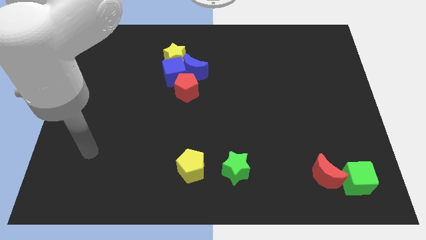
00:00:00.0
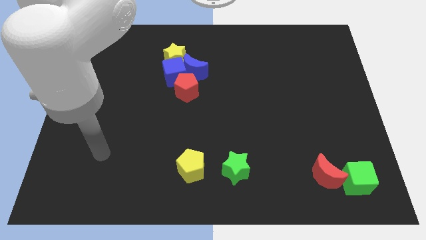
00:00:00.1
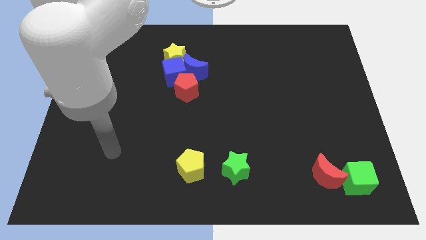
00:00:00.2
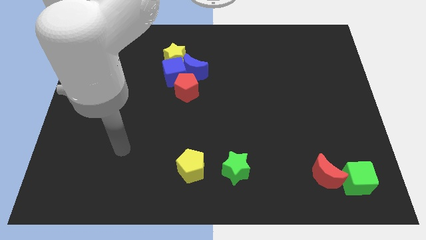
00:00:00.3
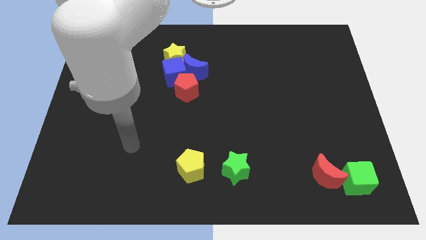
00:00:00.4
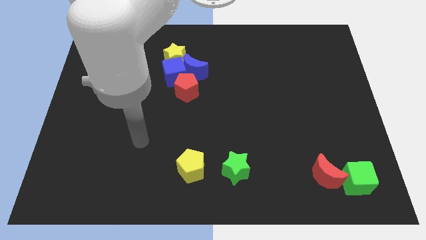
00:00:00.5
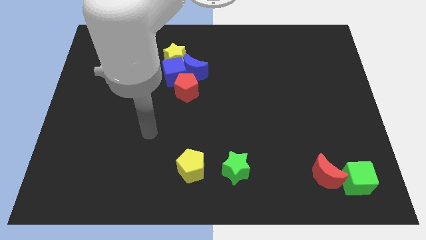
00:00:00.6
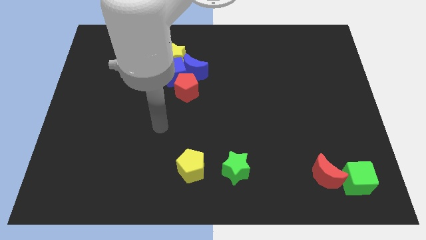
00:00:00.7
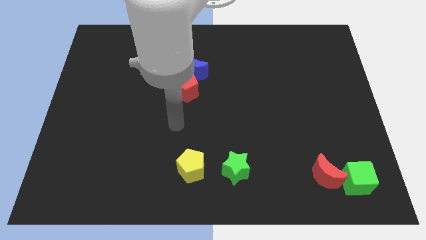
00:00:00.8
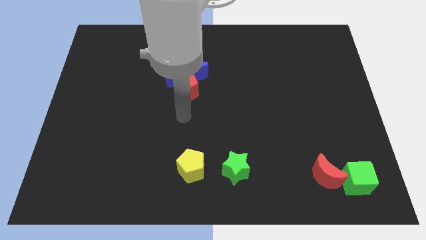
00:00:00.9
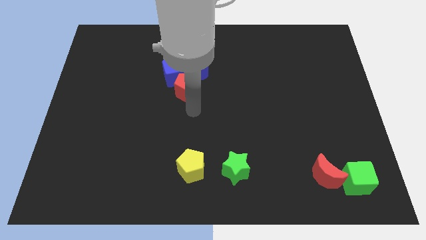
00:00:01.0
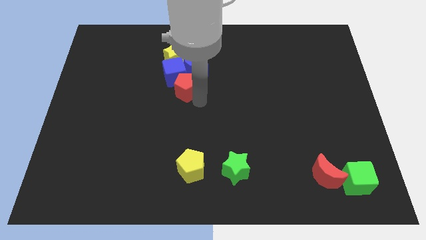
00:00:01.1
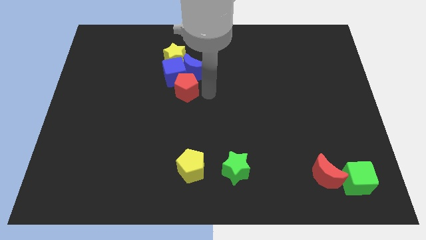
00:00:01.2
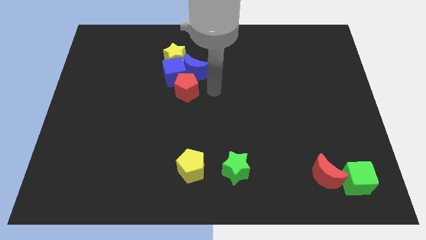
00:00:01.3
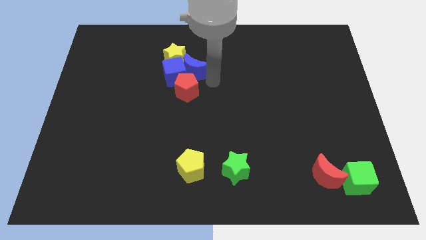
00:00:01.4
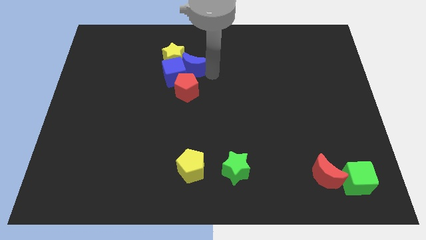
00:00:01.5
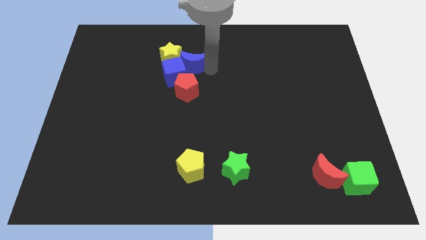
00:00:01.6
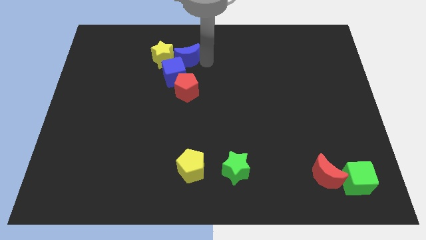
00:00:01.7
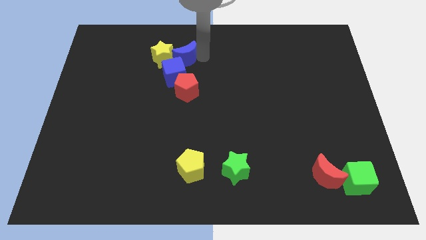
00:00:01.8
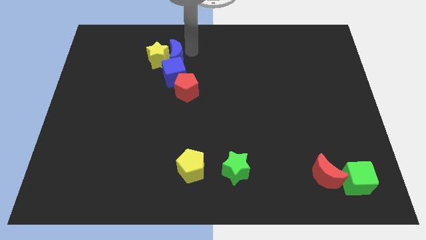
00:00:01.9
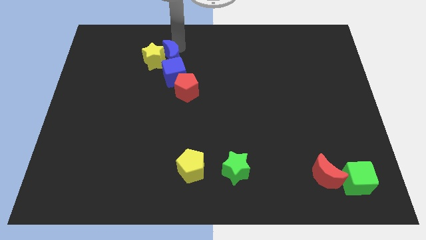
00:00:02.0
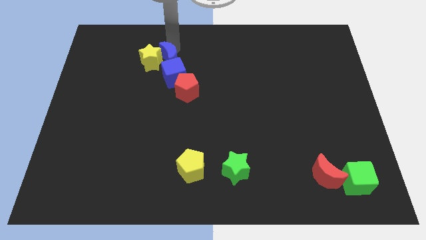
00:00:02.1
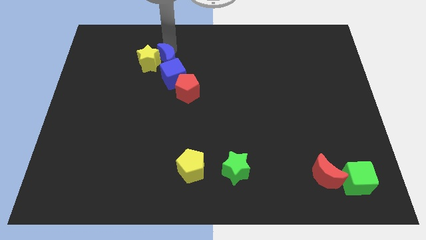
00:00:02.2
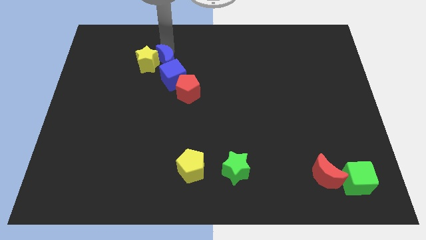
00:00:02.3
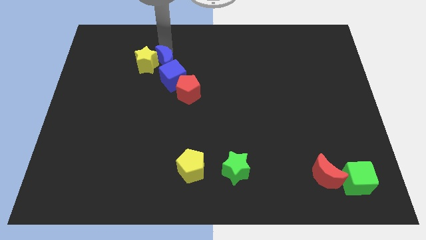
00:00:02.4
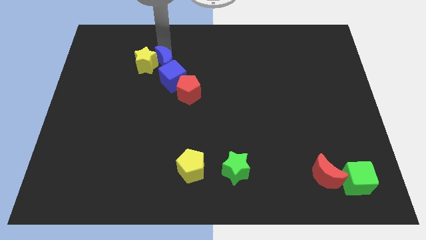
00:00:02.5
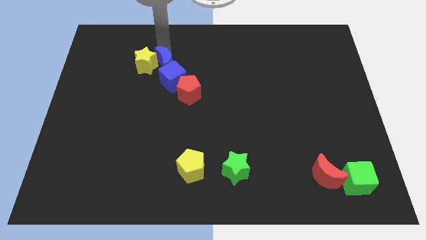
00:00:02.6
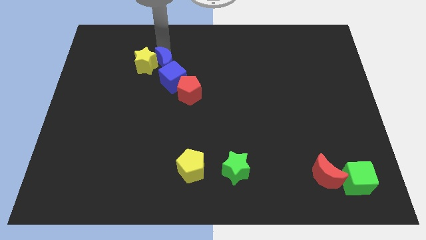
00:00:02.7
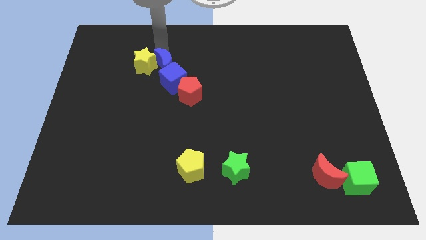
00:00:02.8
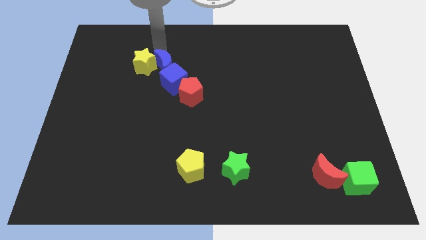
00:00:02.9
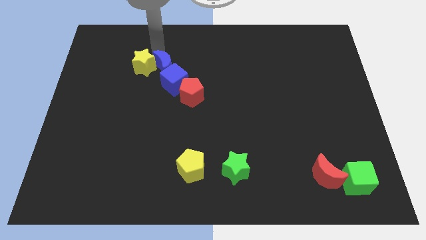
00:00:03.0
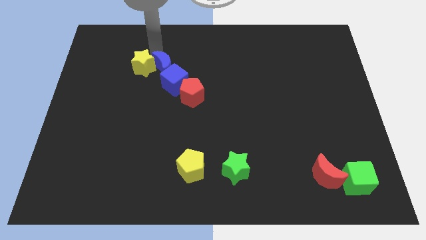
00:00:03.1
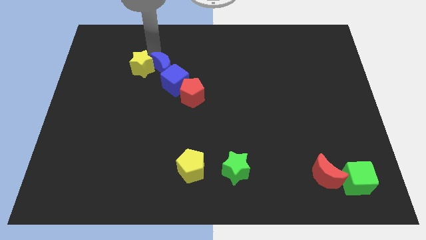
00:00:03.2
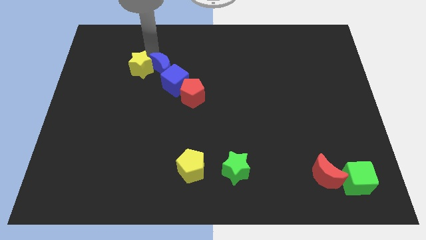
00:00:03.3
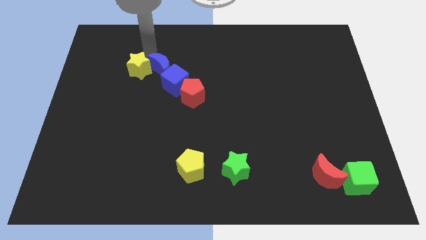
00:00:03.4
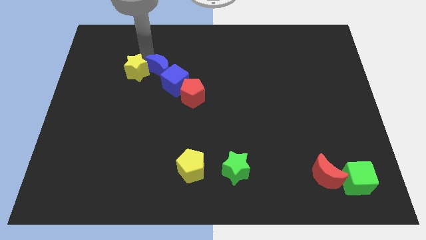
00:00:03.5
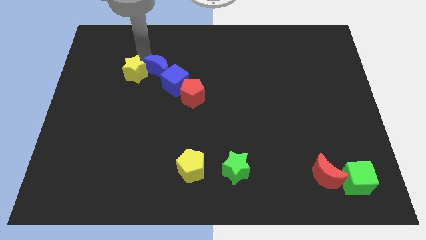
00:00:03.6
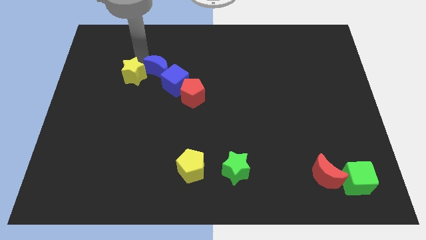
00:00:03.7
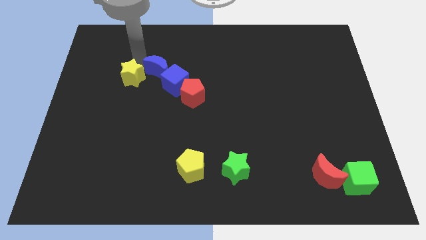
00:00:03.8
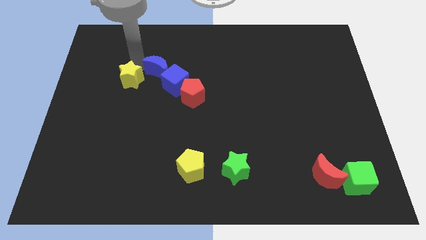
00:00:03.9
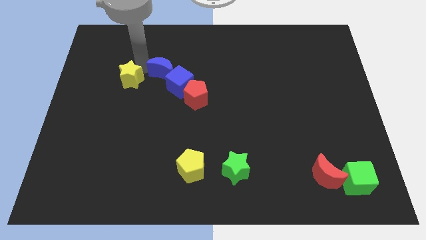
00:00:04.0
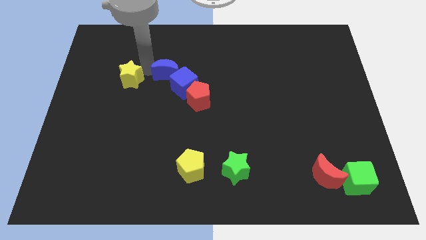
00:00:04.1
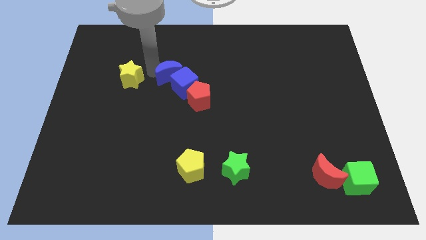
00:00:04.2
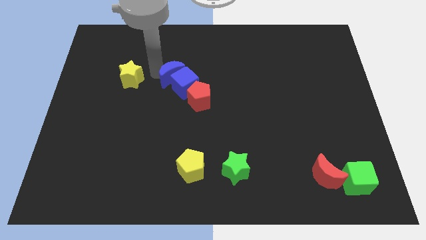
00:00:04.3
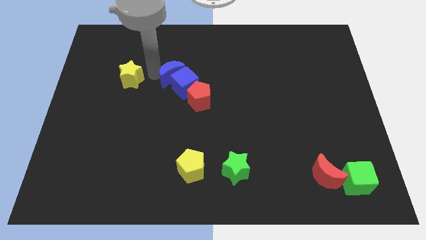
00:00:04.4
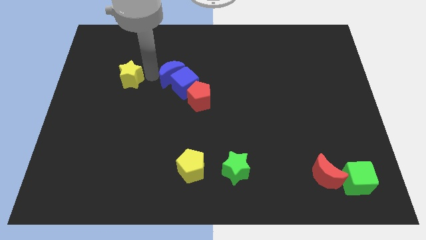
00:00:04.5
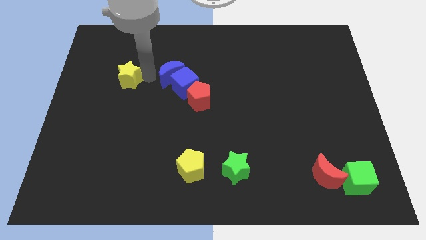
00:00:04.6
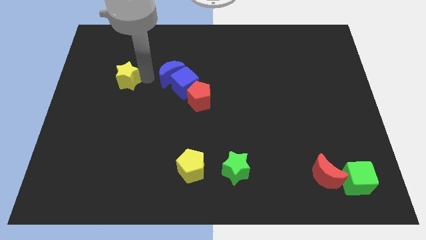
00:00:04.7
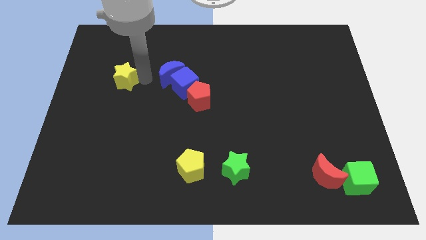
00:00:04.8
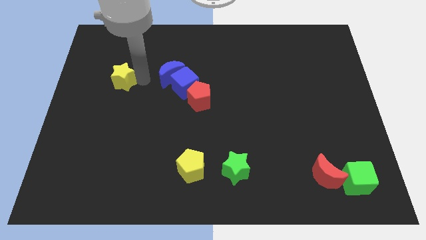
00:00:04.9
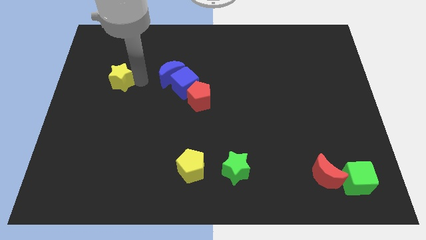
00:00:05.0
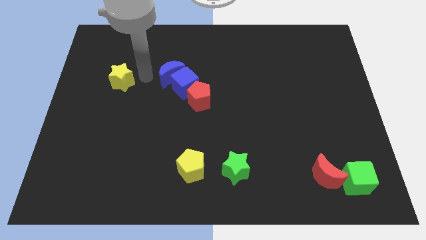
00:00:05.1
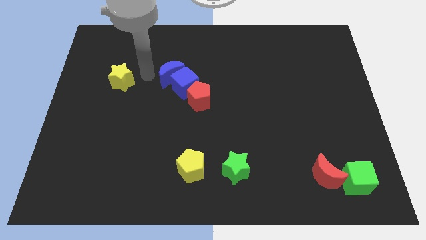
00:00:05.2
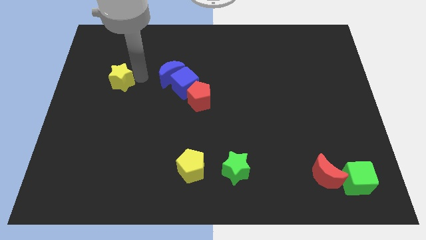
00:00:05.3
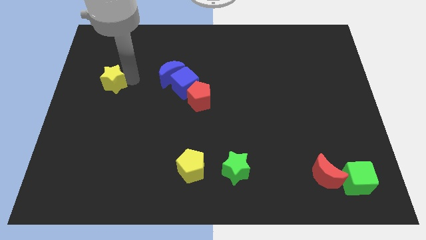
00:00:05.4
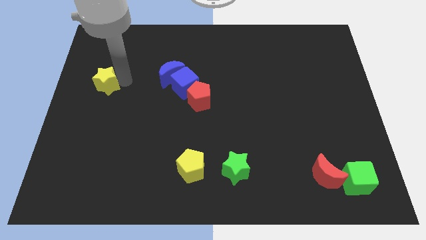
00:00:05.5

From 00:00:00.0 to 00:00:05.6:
slide the yellow star to the left side of the board

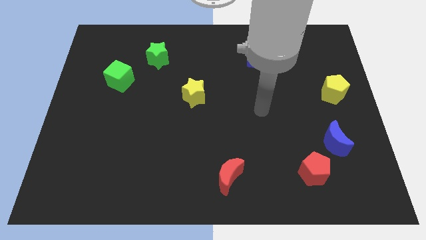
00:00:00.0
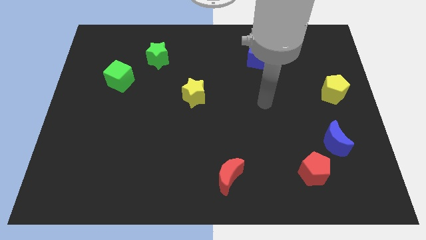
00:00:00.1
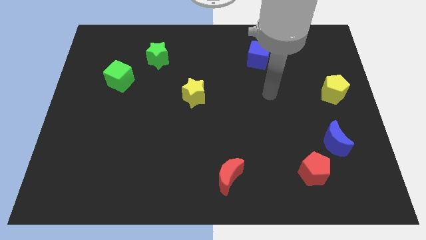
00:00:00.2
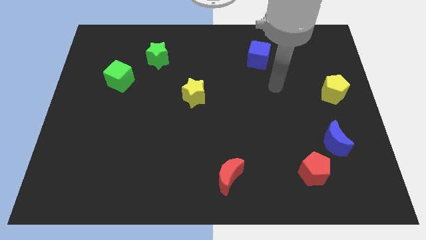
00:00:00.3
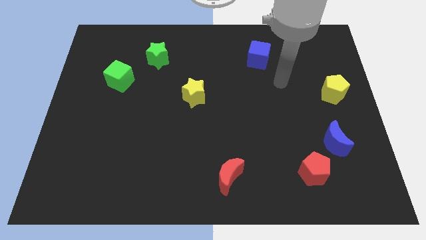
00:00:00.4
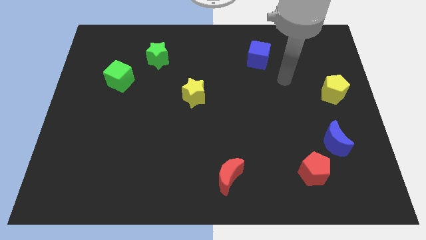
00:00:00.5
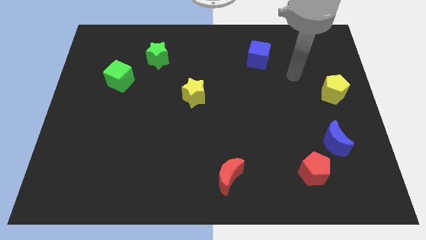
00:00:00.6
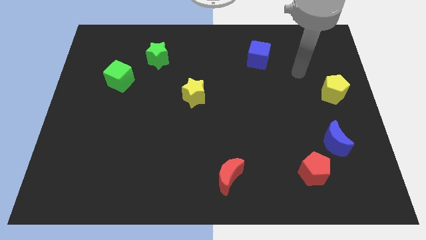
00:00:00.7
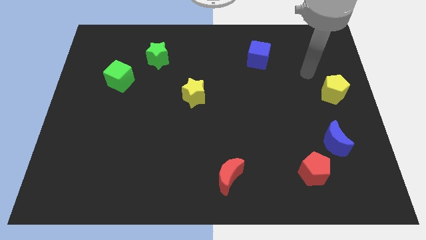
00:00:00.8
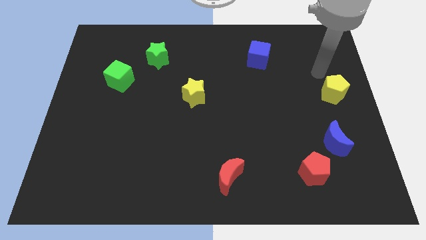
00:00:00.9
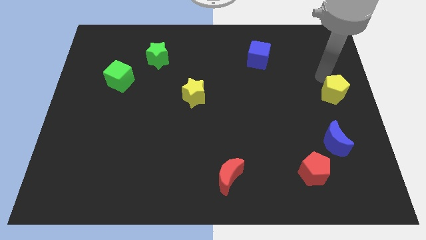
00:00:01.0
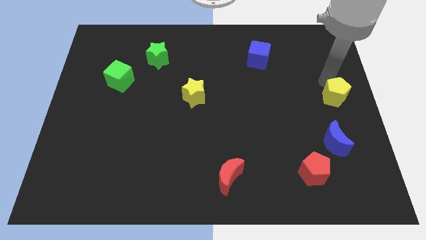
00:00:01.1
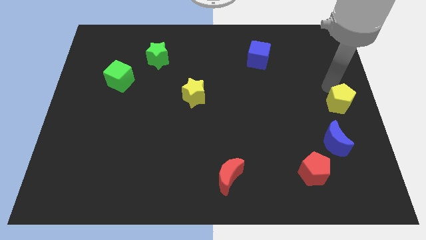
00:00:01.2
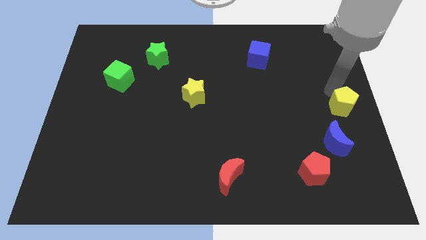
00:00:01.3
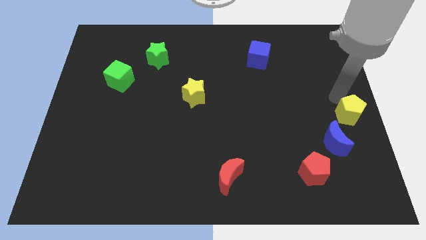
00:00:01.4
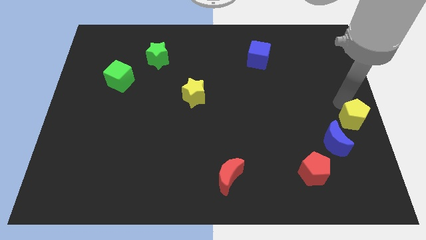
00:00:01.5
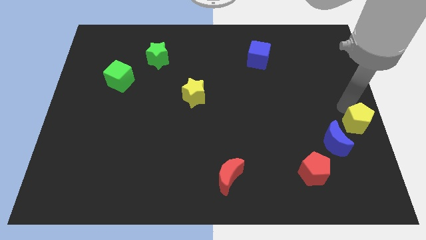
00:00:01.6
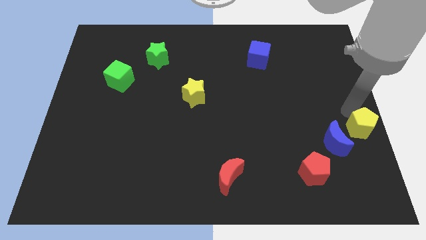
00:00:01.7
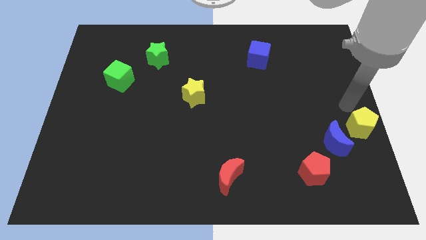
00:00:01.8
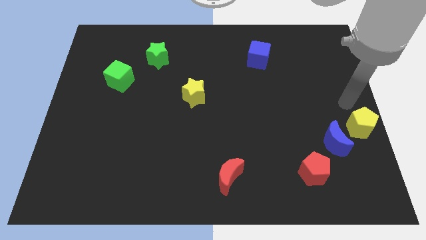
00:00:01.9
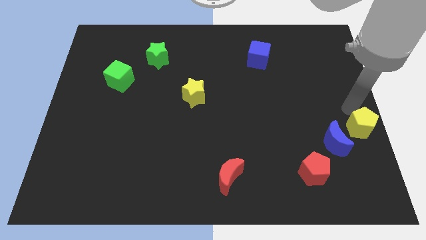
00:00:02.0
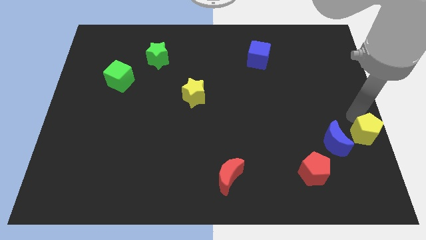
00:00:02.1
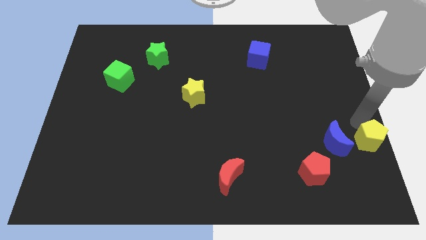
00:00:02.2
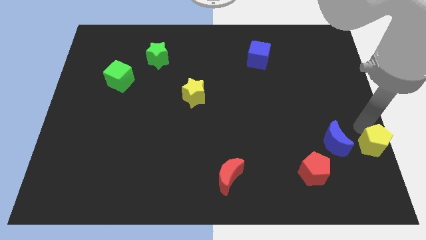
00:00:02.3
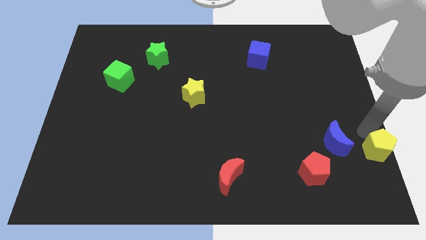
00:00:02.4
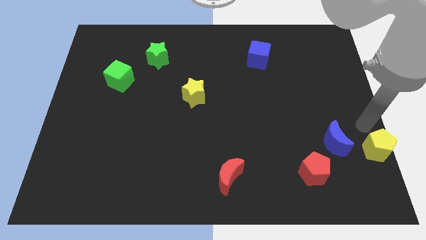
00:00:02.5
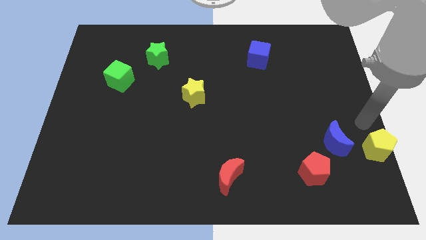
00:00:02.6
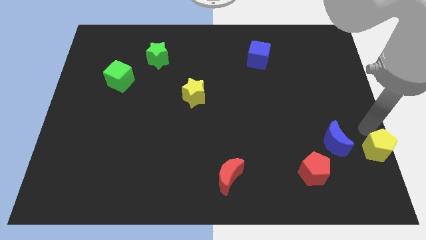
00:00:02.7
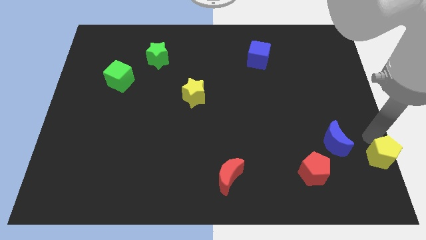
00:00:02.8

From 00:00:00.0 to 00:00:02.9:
put the yellow pentagon to the bottom right corner

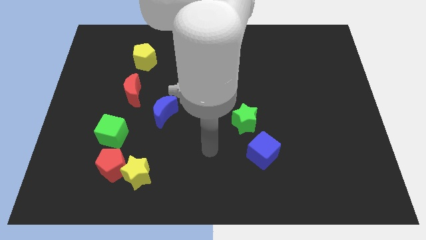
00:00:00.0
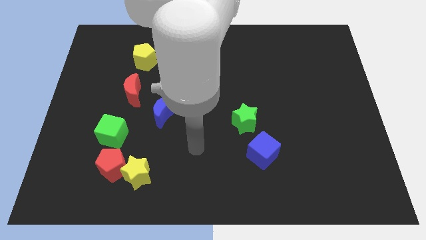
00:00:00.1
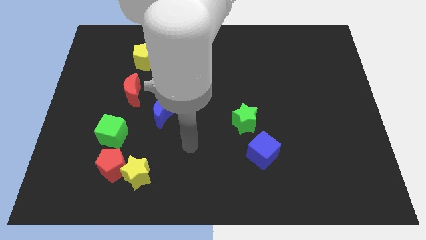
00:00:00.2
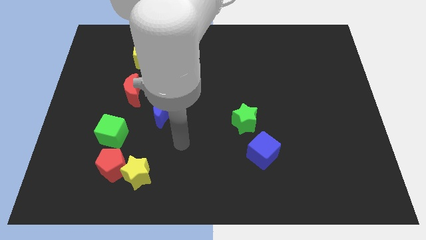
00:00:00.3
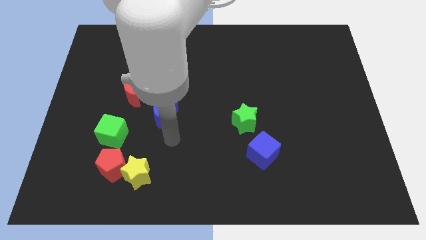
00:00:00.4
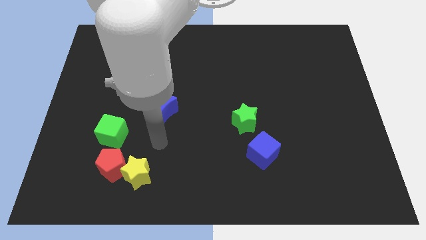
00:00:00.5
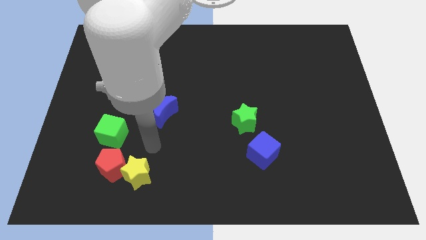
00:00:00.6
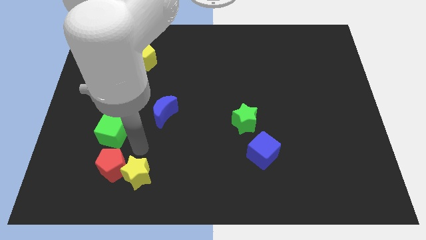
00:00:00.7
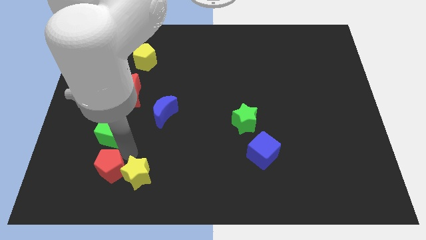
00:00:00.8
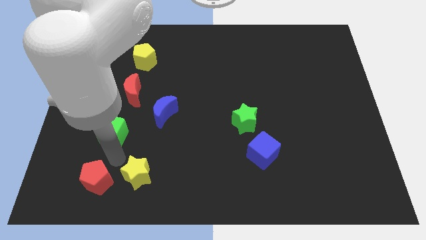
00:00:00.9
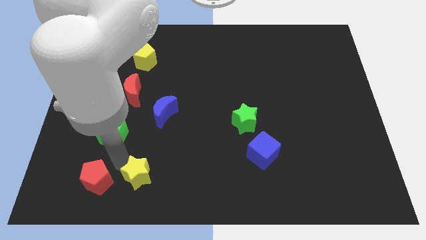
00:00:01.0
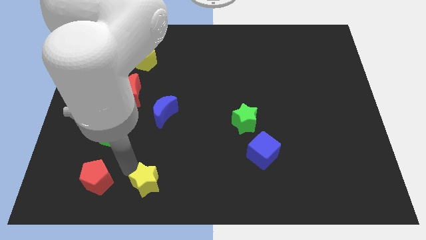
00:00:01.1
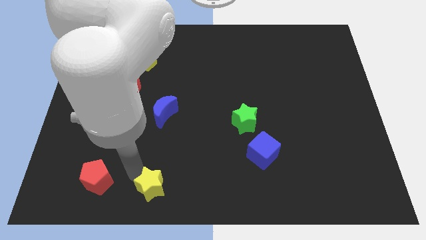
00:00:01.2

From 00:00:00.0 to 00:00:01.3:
move the yellow star to the bottom side
